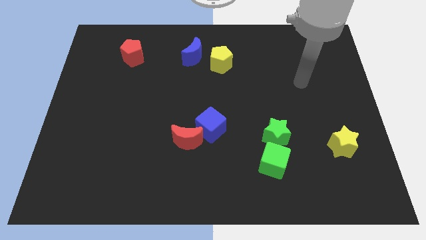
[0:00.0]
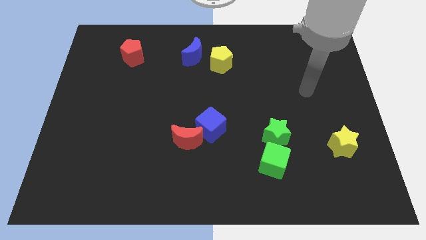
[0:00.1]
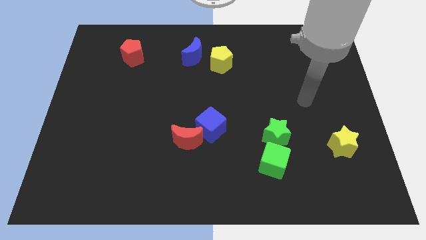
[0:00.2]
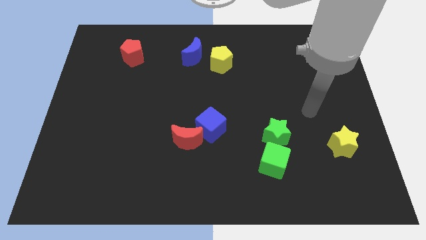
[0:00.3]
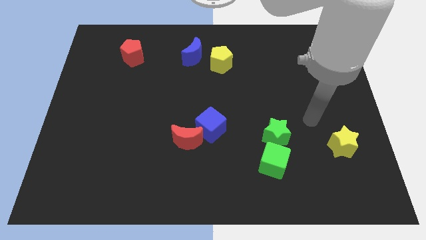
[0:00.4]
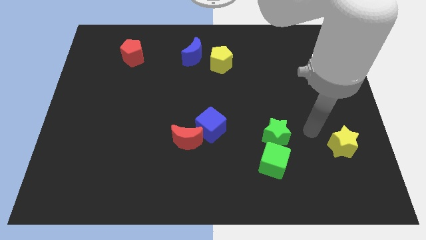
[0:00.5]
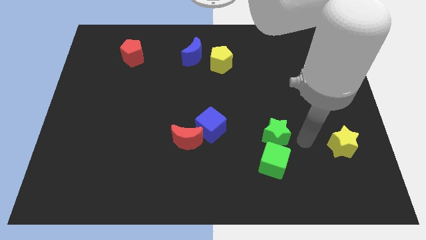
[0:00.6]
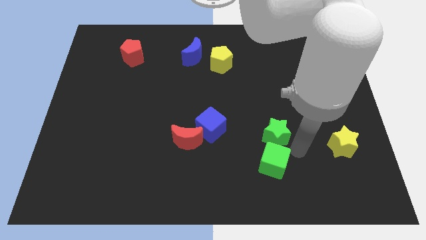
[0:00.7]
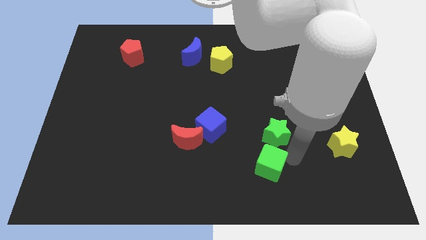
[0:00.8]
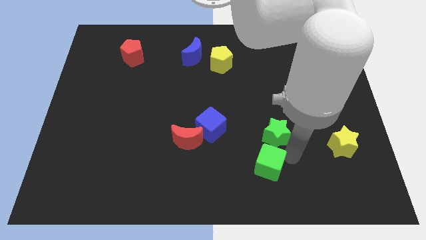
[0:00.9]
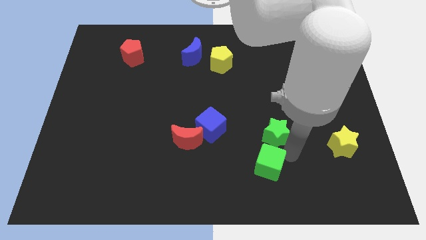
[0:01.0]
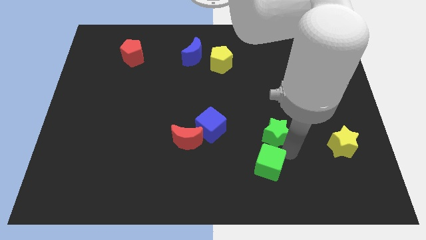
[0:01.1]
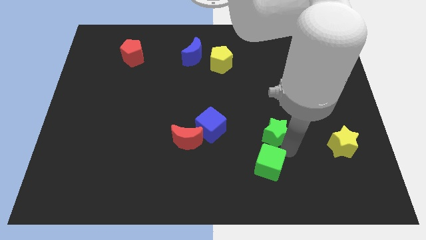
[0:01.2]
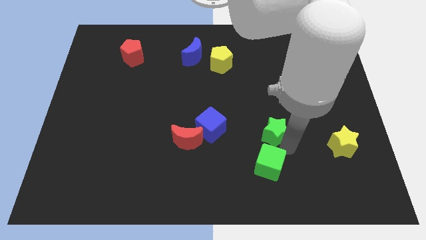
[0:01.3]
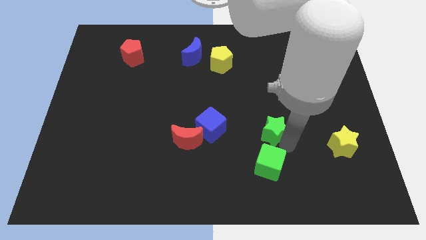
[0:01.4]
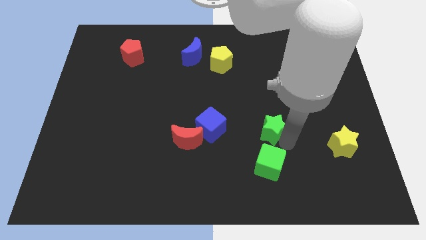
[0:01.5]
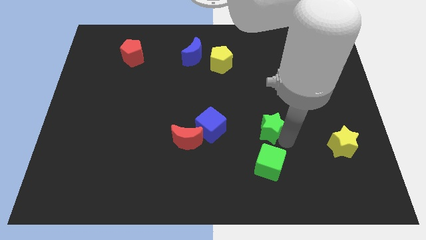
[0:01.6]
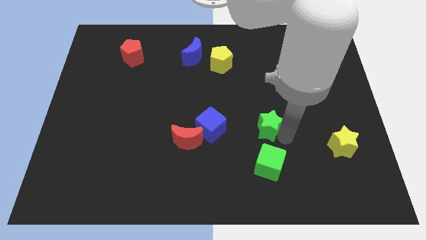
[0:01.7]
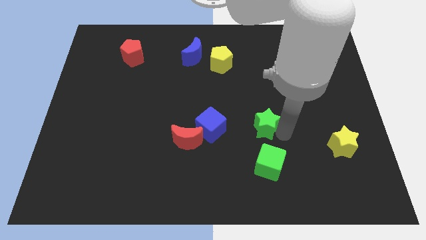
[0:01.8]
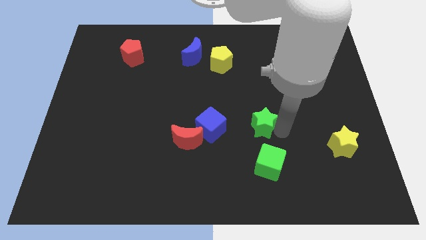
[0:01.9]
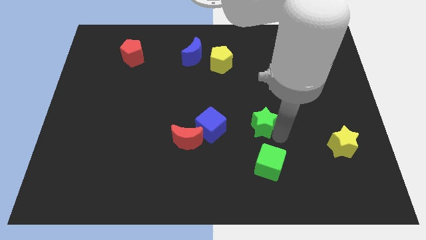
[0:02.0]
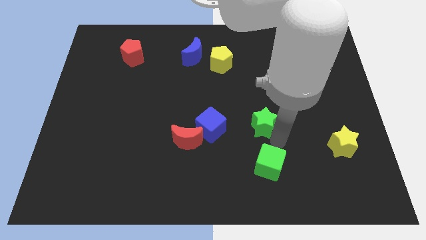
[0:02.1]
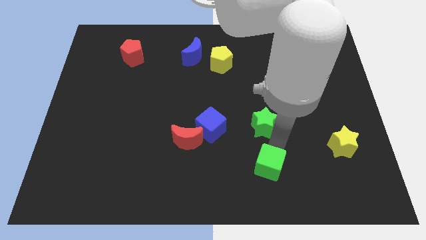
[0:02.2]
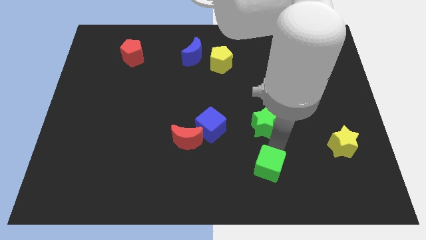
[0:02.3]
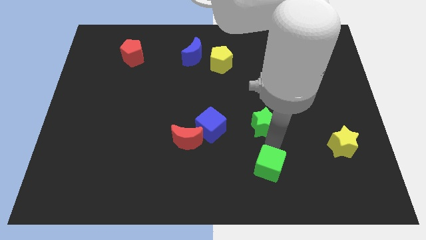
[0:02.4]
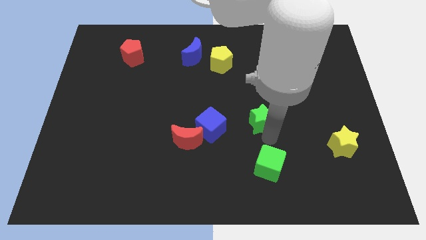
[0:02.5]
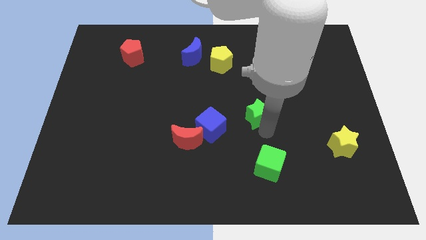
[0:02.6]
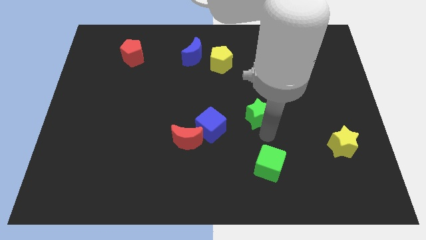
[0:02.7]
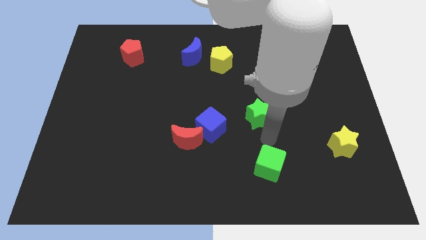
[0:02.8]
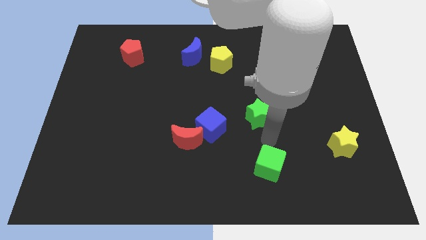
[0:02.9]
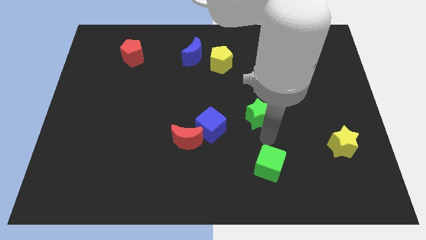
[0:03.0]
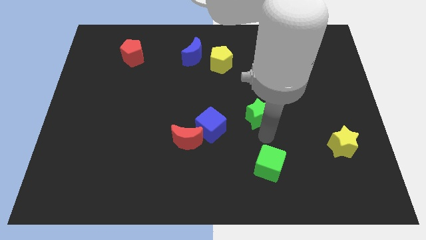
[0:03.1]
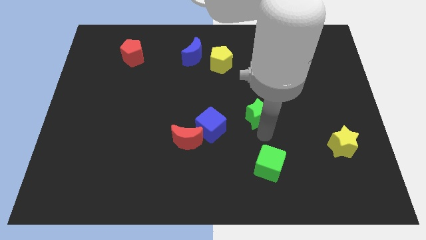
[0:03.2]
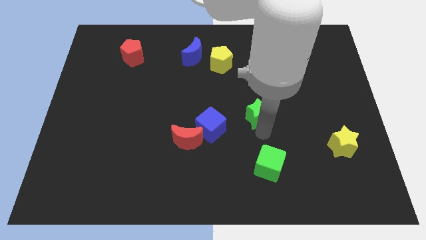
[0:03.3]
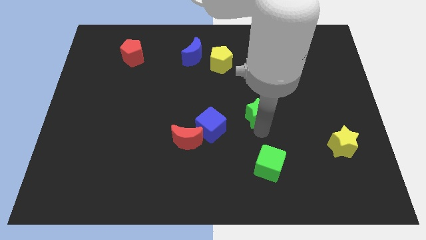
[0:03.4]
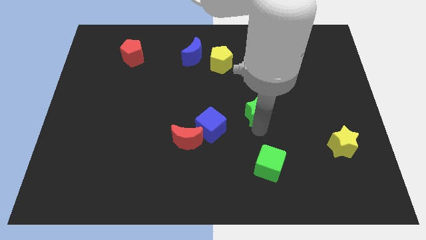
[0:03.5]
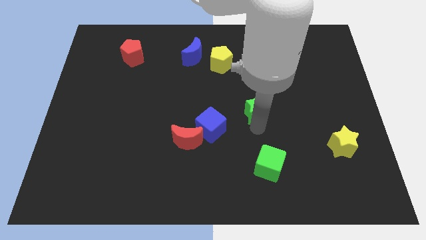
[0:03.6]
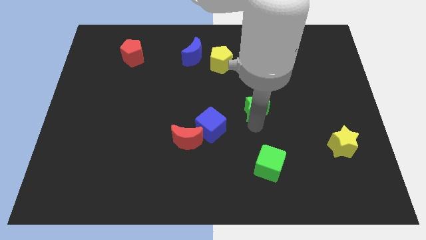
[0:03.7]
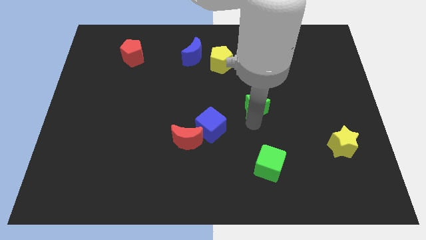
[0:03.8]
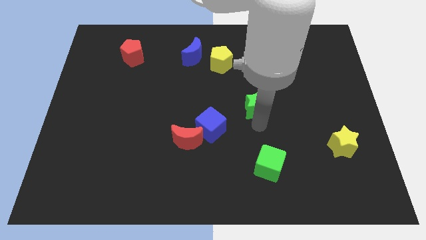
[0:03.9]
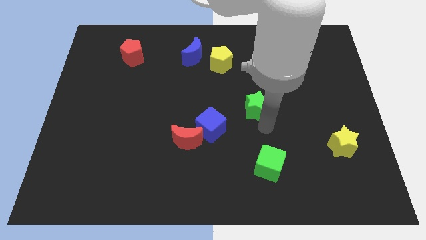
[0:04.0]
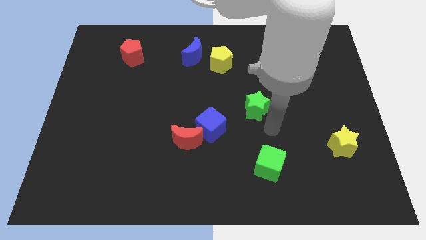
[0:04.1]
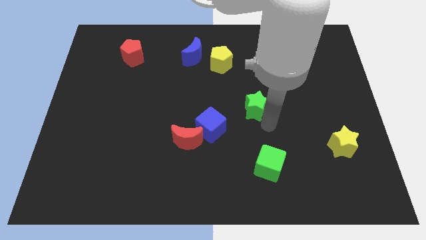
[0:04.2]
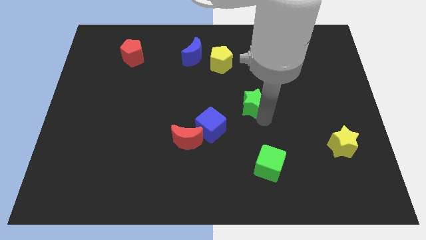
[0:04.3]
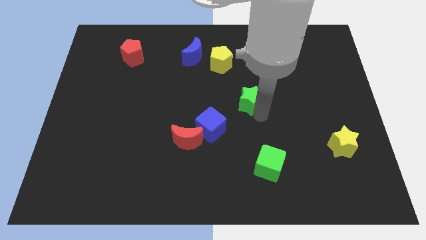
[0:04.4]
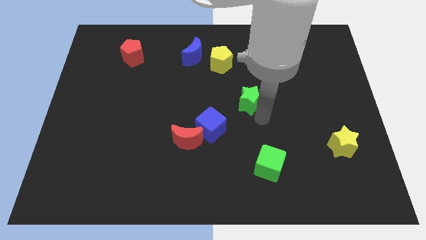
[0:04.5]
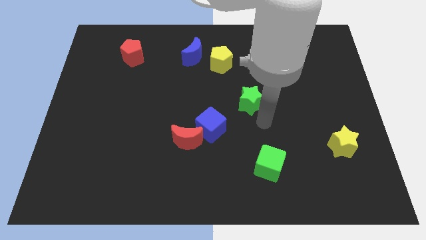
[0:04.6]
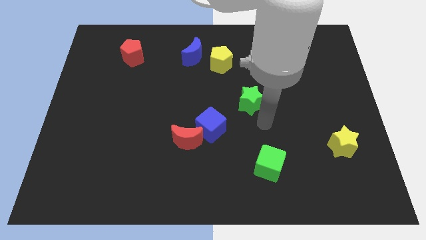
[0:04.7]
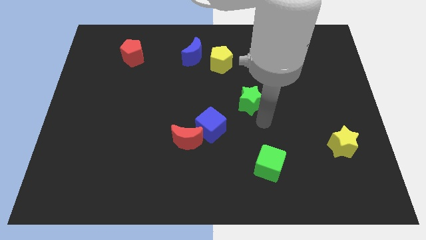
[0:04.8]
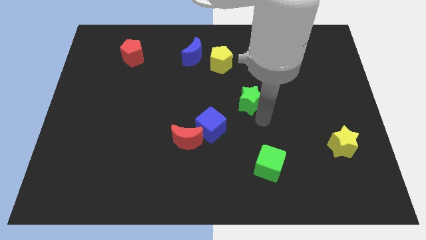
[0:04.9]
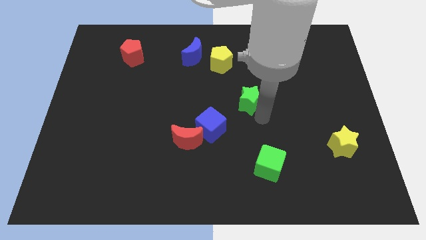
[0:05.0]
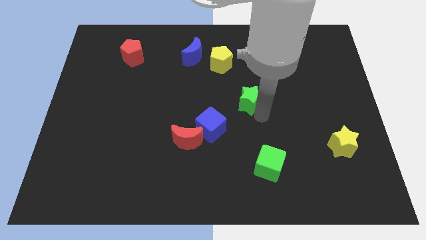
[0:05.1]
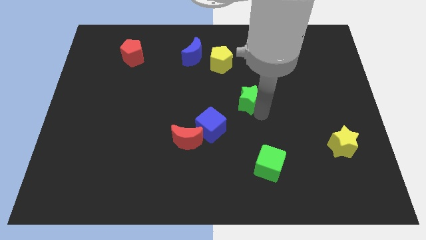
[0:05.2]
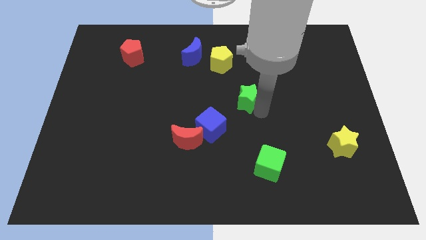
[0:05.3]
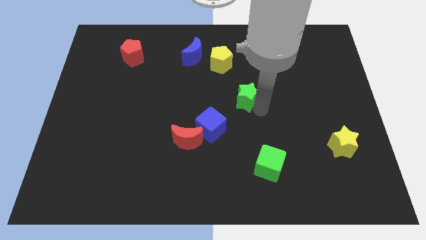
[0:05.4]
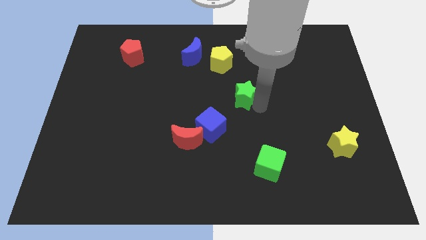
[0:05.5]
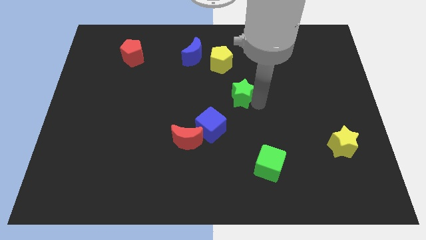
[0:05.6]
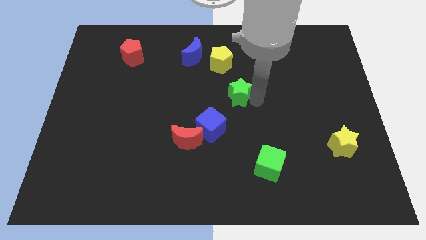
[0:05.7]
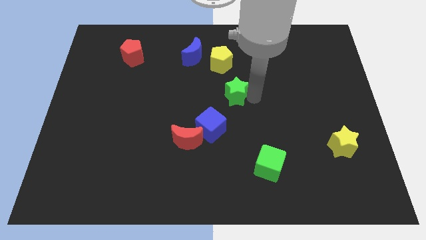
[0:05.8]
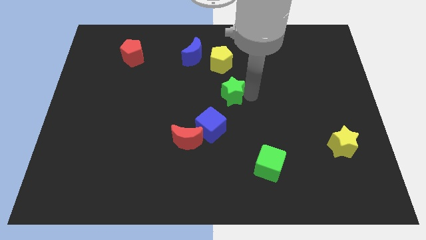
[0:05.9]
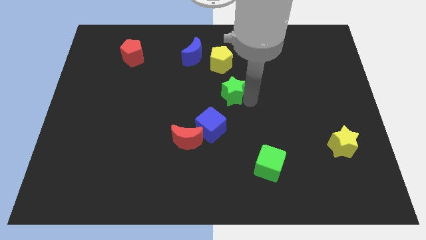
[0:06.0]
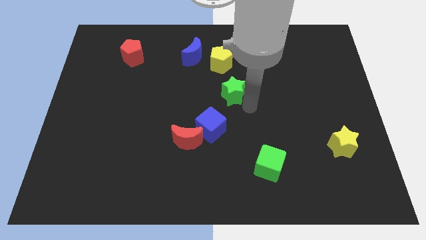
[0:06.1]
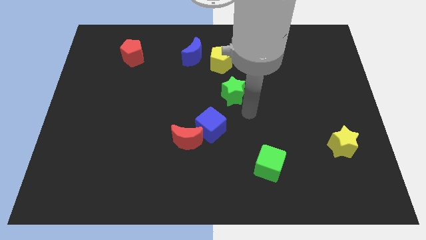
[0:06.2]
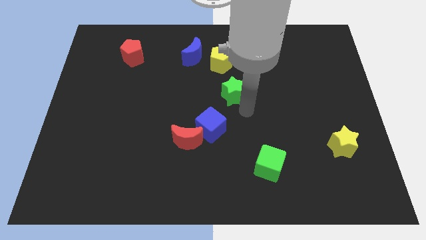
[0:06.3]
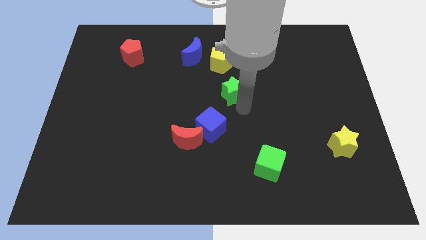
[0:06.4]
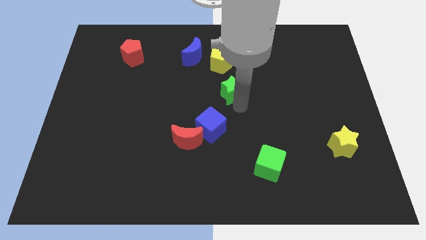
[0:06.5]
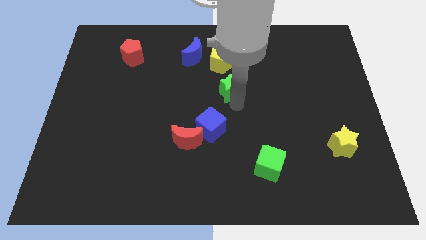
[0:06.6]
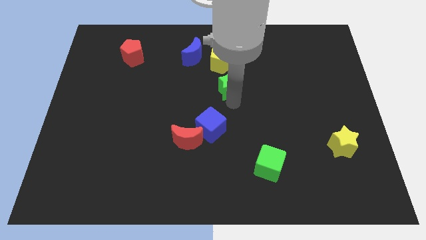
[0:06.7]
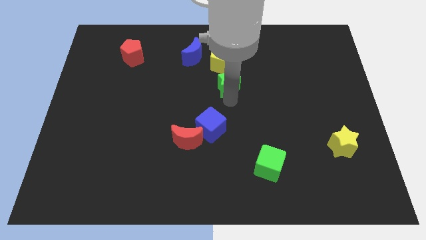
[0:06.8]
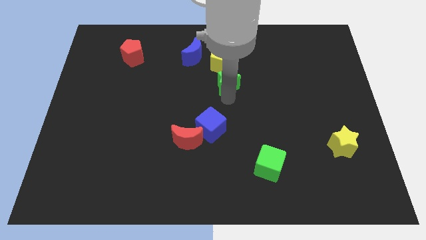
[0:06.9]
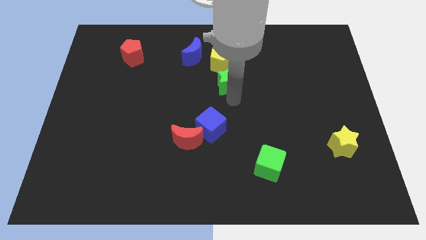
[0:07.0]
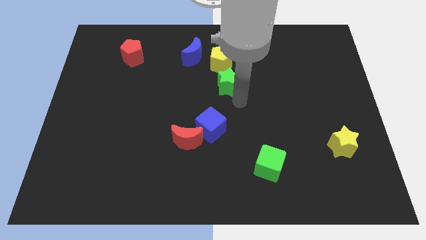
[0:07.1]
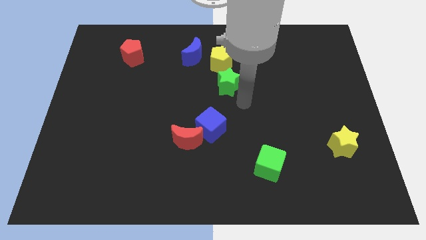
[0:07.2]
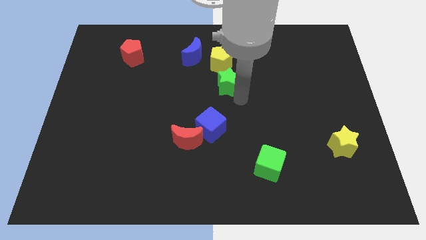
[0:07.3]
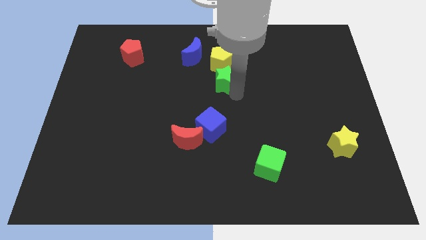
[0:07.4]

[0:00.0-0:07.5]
slide the green star diagonally down and to the right of the blue moon

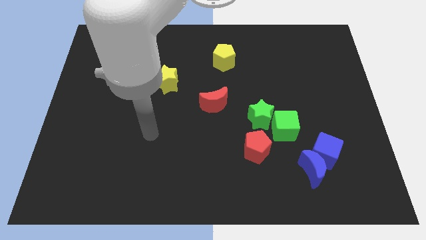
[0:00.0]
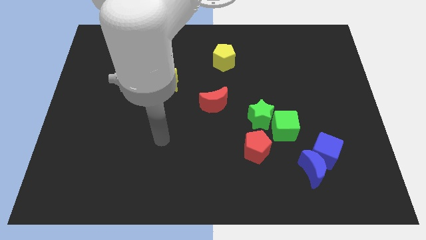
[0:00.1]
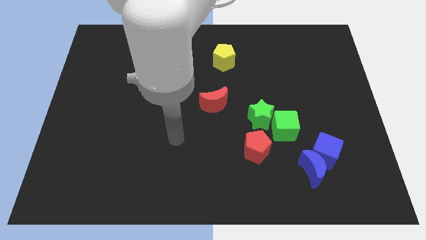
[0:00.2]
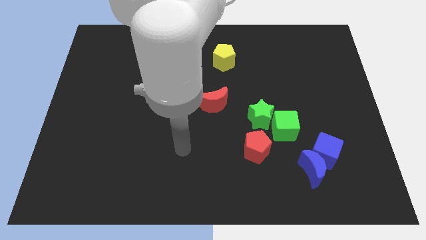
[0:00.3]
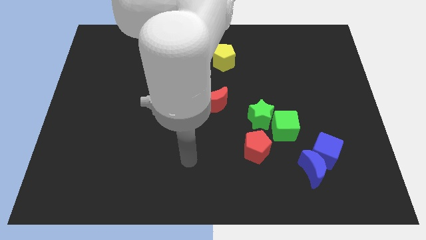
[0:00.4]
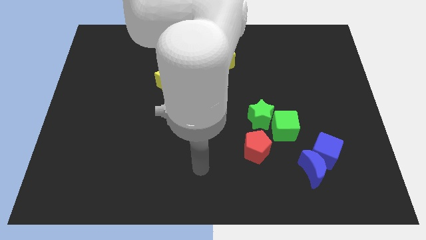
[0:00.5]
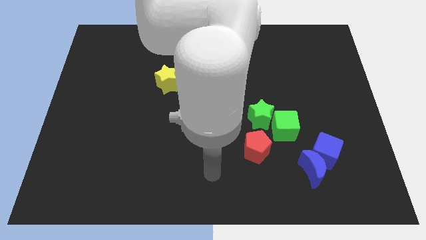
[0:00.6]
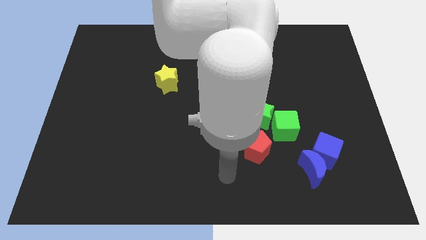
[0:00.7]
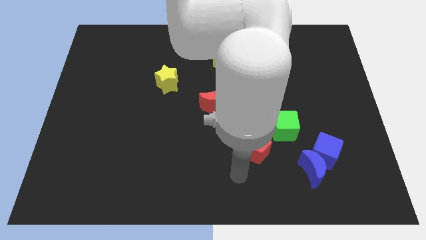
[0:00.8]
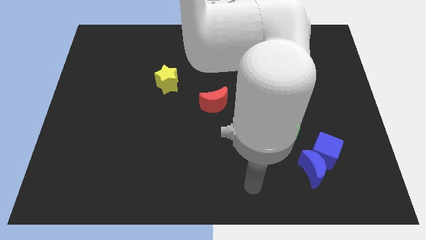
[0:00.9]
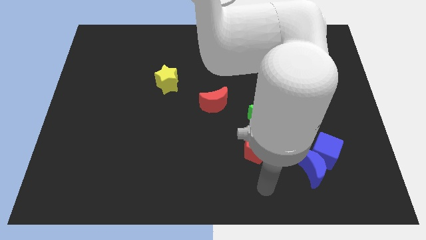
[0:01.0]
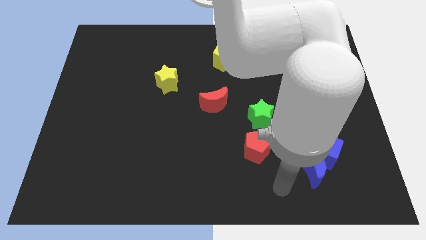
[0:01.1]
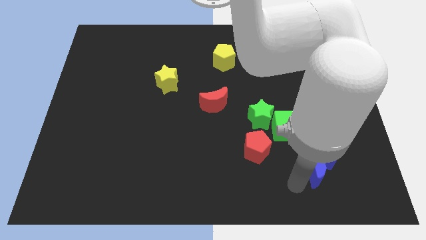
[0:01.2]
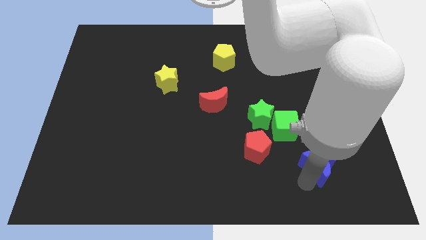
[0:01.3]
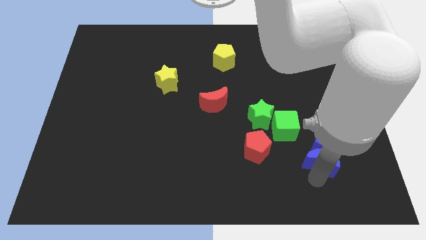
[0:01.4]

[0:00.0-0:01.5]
push the blue cube to the right side of the green cube
